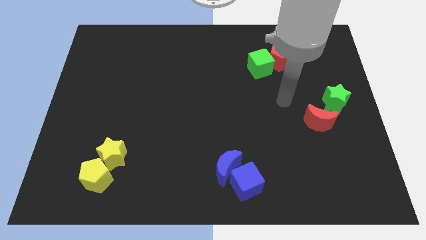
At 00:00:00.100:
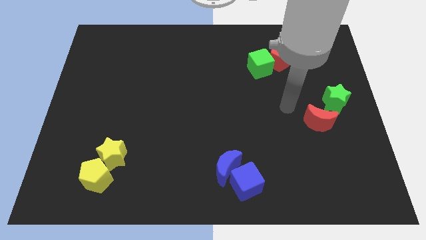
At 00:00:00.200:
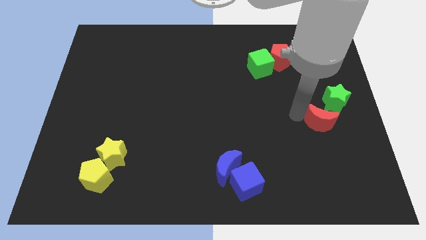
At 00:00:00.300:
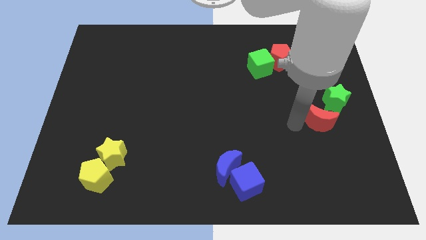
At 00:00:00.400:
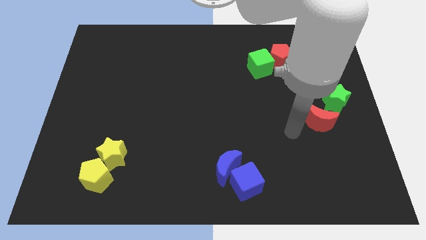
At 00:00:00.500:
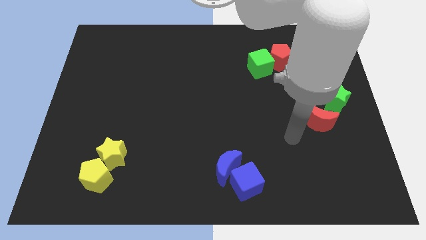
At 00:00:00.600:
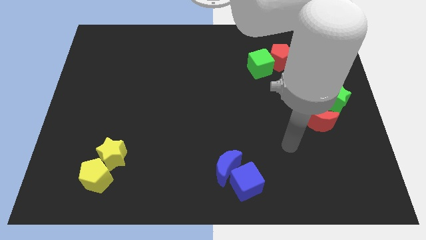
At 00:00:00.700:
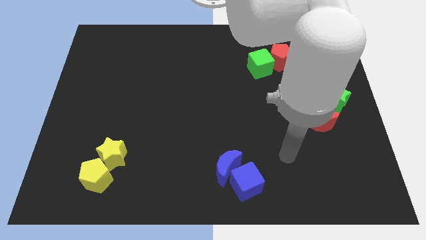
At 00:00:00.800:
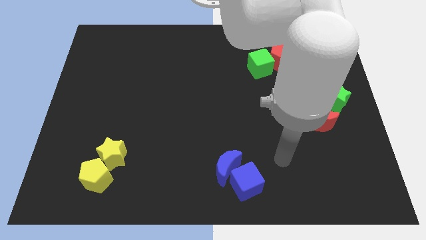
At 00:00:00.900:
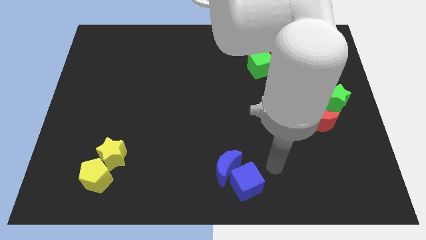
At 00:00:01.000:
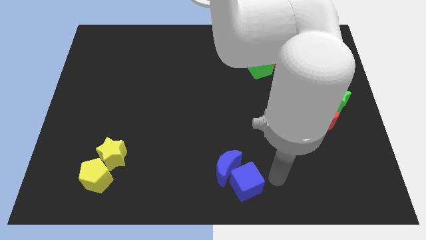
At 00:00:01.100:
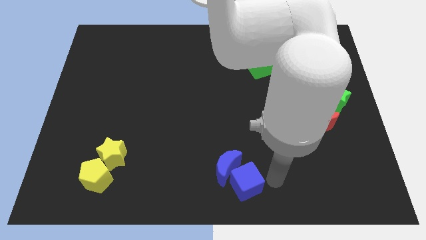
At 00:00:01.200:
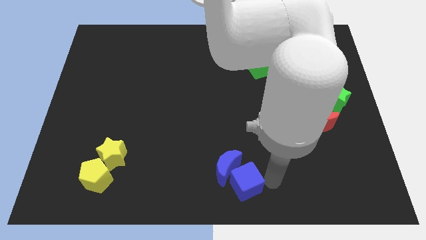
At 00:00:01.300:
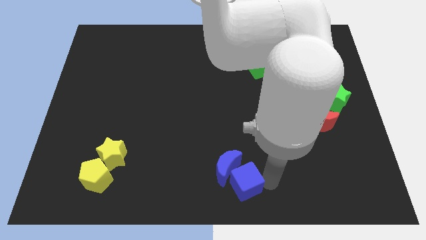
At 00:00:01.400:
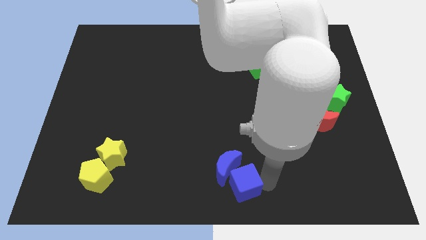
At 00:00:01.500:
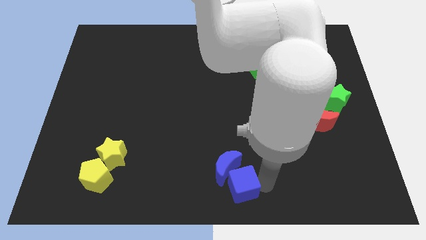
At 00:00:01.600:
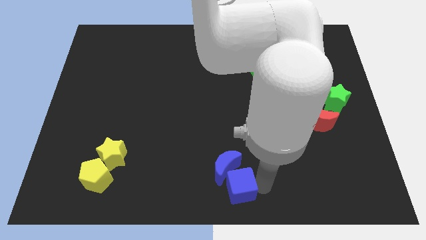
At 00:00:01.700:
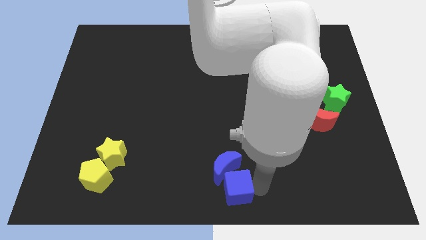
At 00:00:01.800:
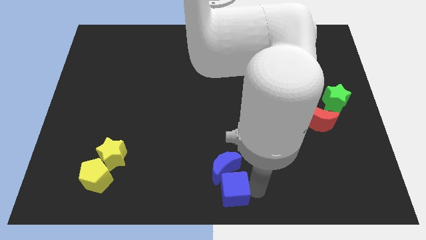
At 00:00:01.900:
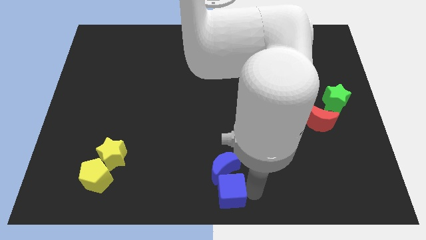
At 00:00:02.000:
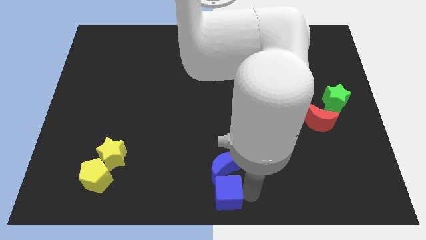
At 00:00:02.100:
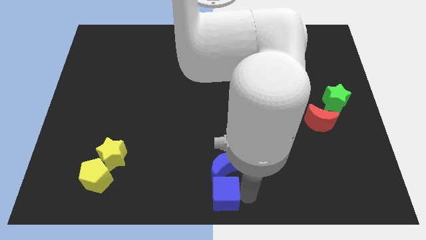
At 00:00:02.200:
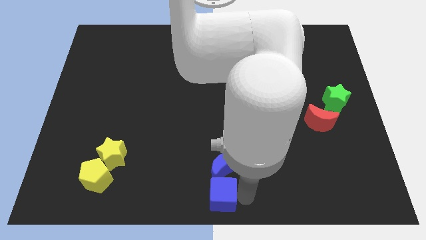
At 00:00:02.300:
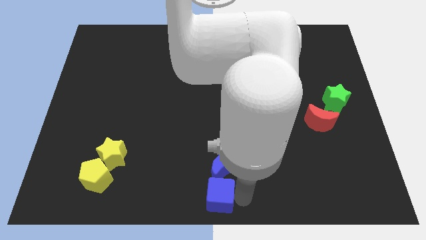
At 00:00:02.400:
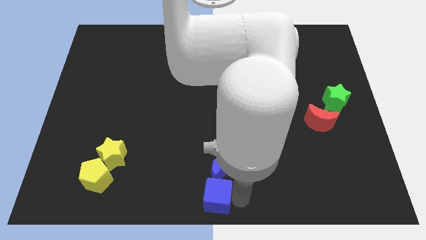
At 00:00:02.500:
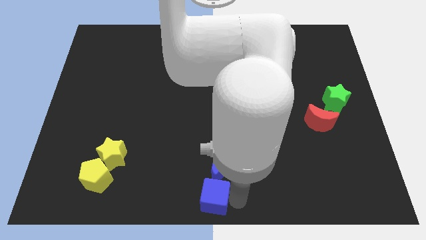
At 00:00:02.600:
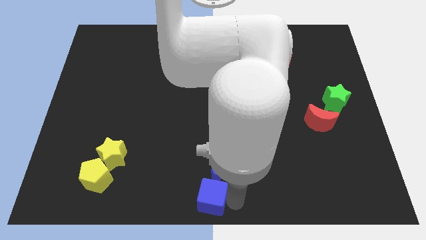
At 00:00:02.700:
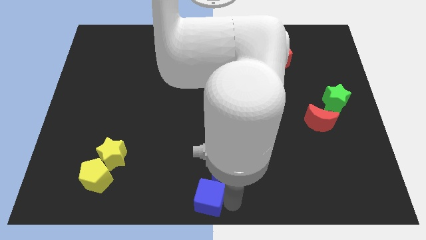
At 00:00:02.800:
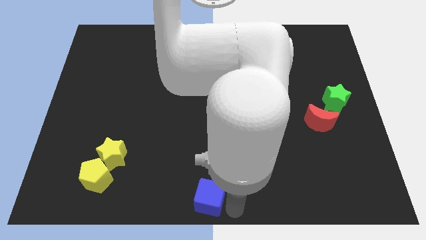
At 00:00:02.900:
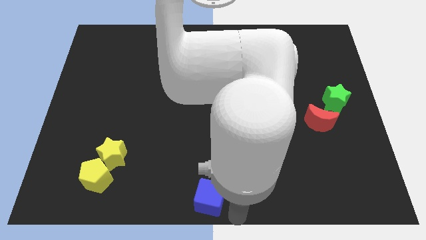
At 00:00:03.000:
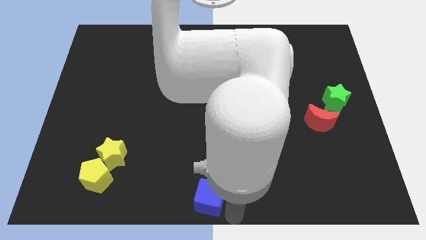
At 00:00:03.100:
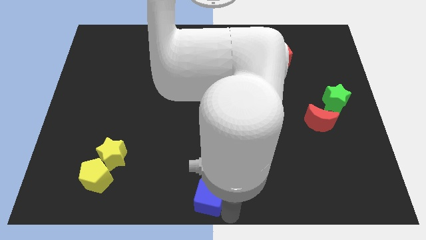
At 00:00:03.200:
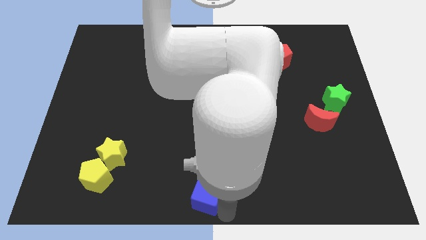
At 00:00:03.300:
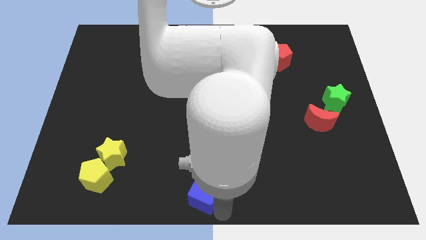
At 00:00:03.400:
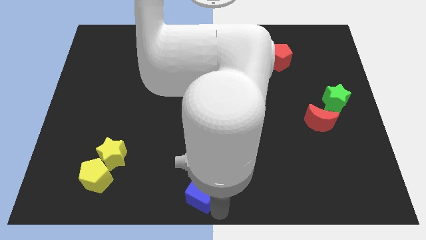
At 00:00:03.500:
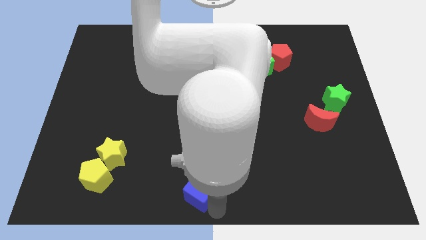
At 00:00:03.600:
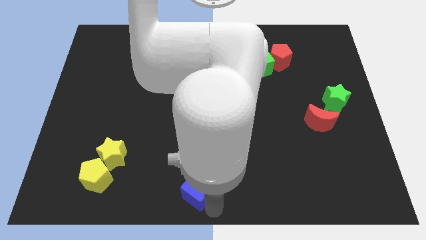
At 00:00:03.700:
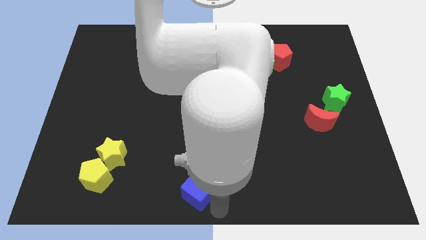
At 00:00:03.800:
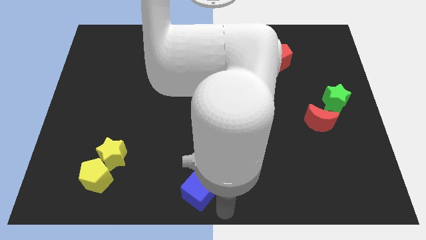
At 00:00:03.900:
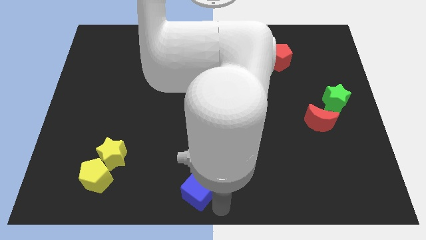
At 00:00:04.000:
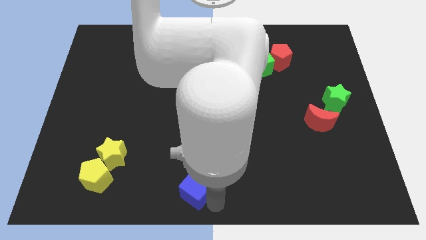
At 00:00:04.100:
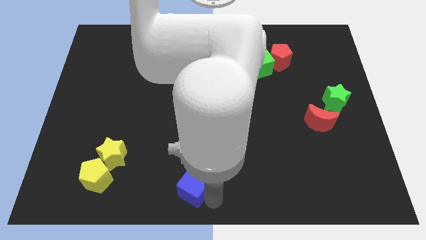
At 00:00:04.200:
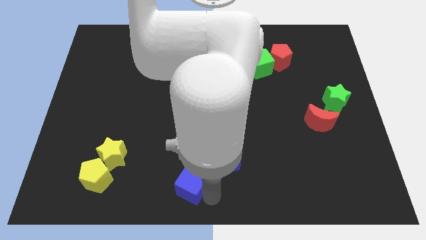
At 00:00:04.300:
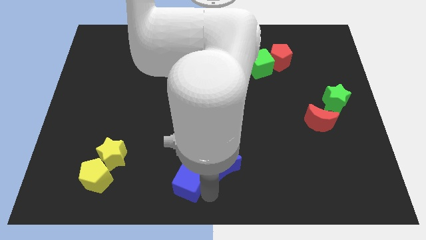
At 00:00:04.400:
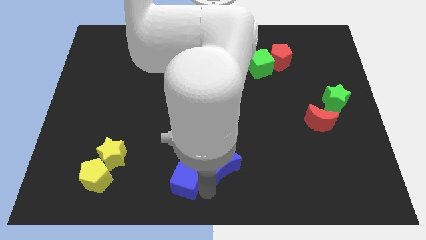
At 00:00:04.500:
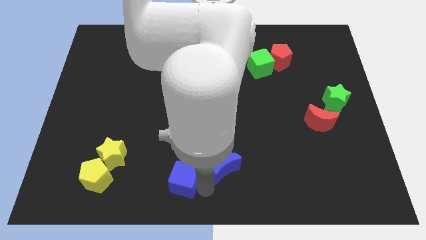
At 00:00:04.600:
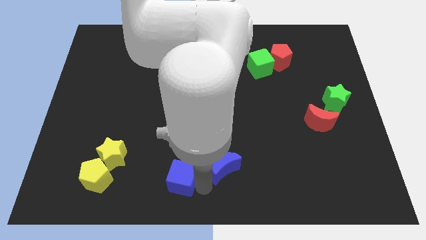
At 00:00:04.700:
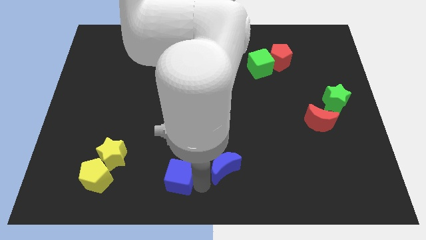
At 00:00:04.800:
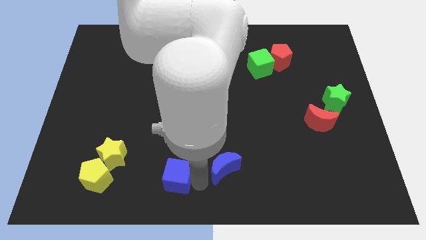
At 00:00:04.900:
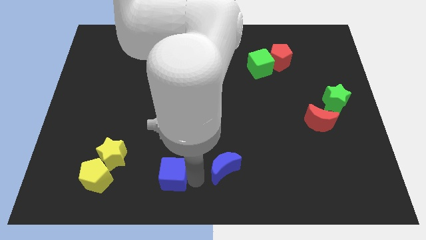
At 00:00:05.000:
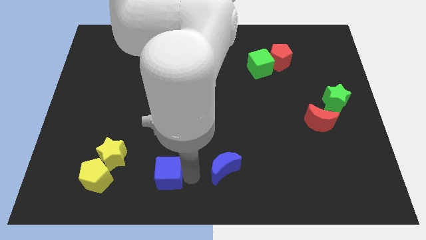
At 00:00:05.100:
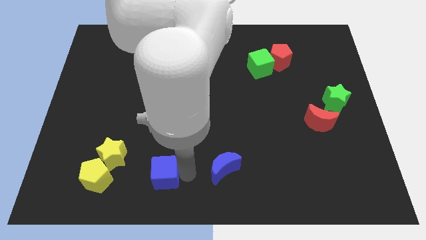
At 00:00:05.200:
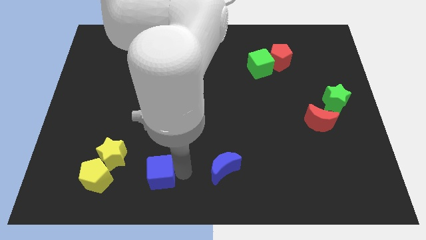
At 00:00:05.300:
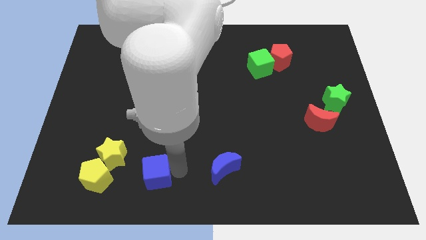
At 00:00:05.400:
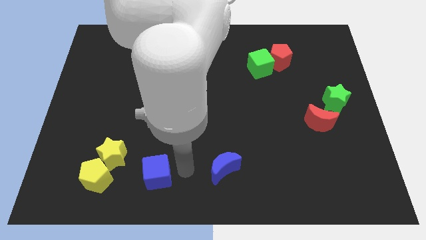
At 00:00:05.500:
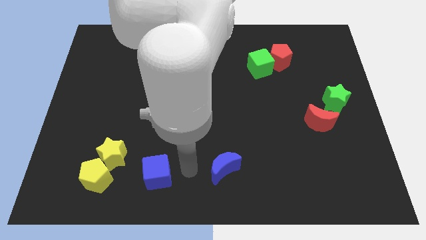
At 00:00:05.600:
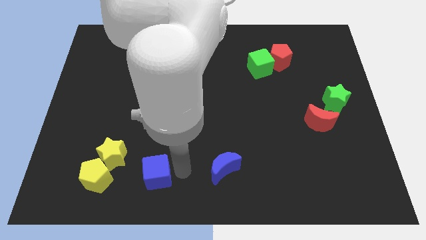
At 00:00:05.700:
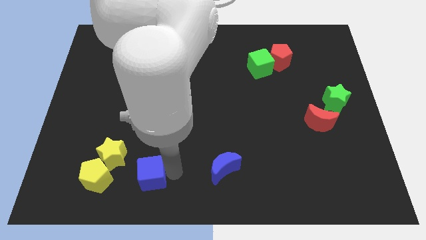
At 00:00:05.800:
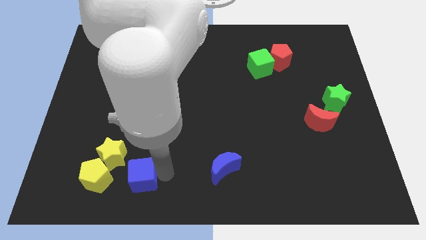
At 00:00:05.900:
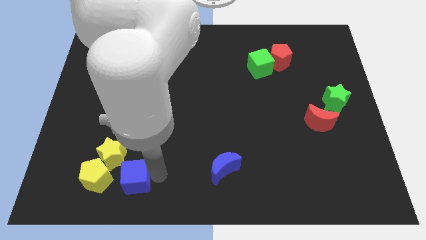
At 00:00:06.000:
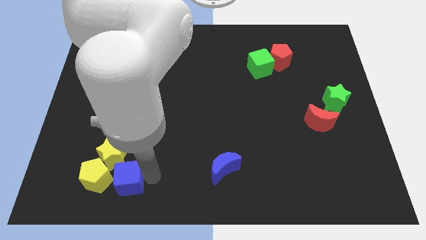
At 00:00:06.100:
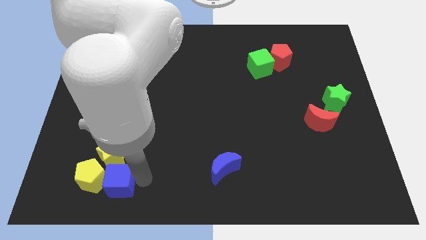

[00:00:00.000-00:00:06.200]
push the blue cube close to the yellow pentagon

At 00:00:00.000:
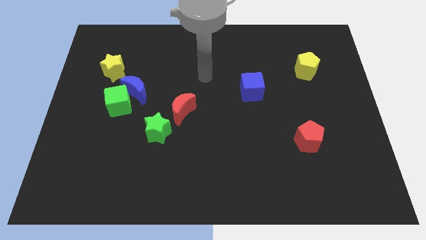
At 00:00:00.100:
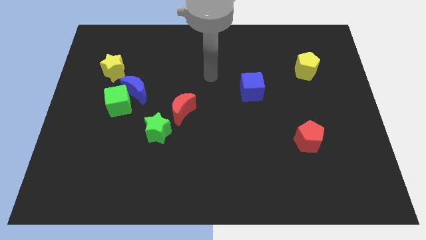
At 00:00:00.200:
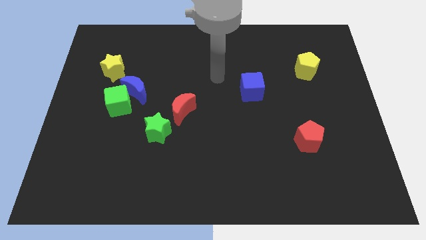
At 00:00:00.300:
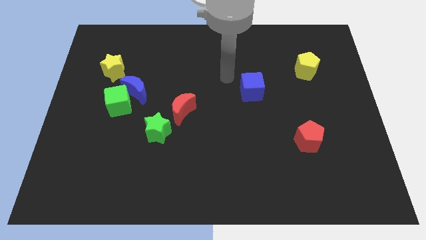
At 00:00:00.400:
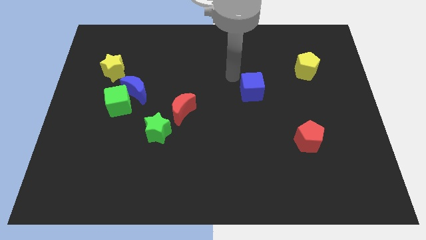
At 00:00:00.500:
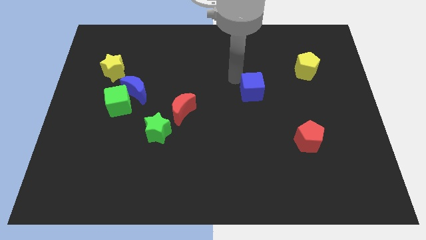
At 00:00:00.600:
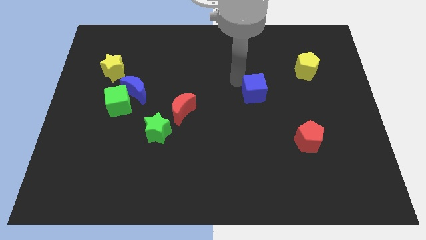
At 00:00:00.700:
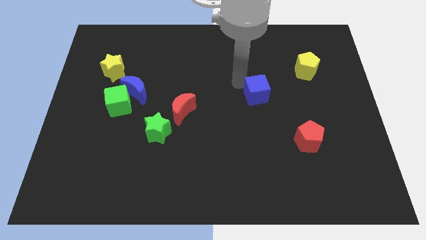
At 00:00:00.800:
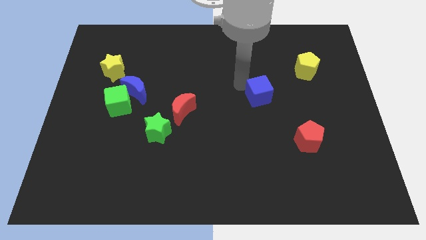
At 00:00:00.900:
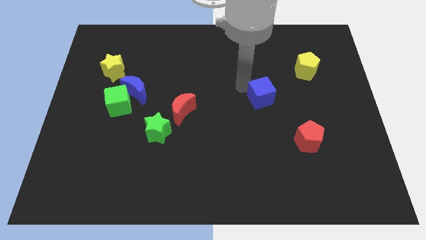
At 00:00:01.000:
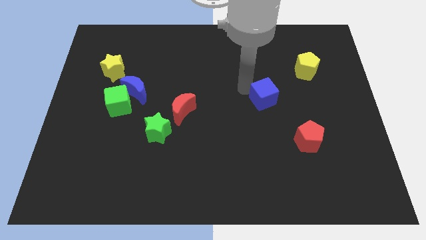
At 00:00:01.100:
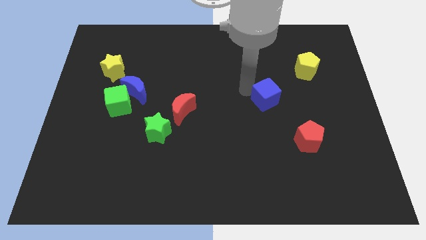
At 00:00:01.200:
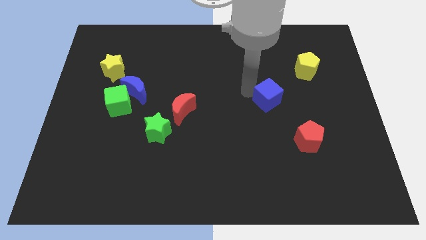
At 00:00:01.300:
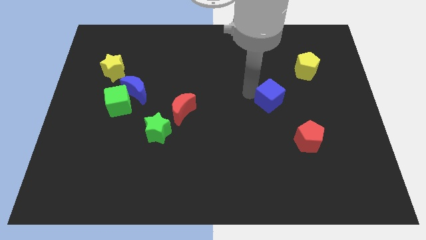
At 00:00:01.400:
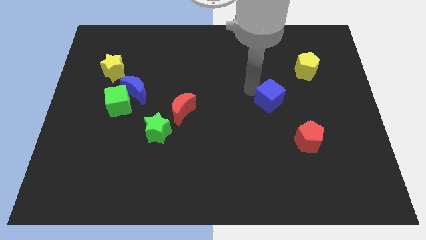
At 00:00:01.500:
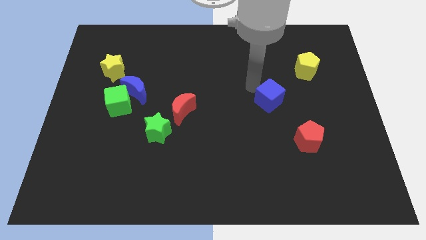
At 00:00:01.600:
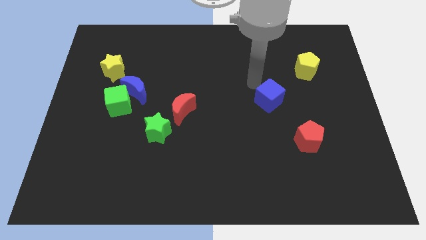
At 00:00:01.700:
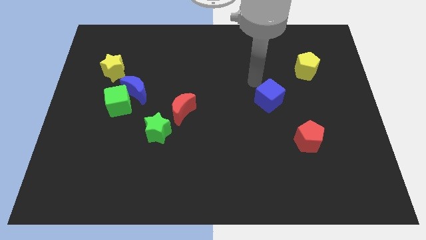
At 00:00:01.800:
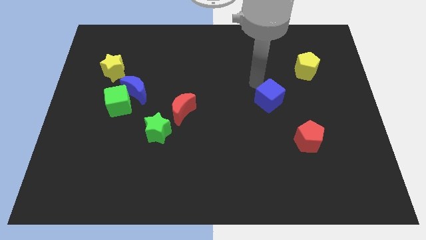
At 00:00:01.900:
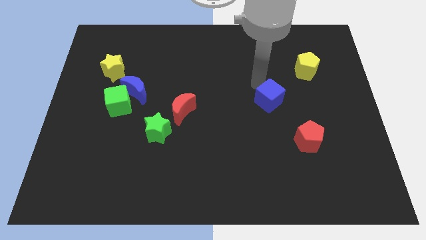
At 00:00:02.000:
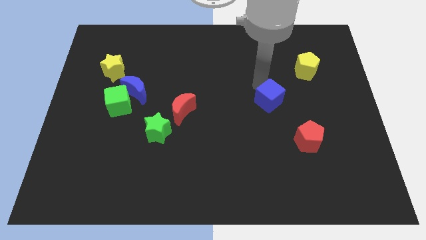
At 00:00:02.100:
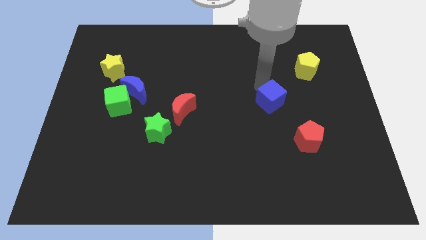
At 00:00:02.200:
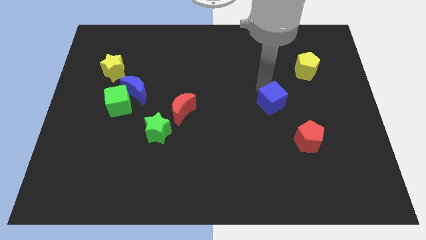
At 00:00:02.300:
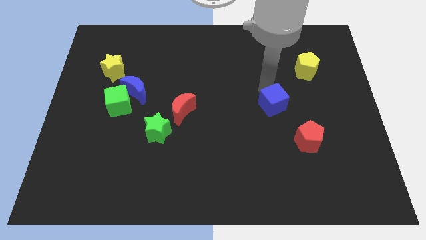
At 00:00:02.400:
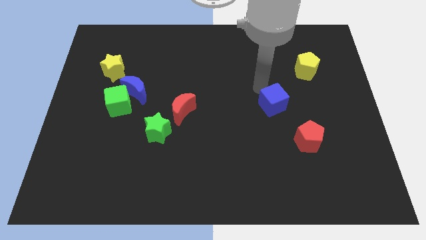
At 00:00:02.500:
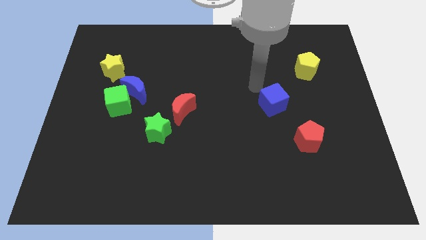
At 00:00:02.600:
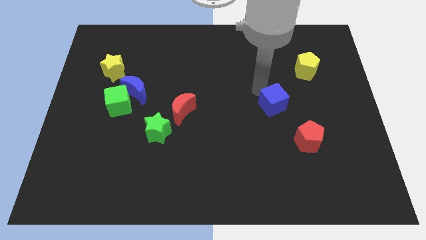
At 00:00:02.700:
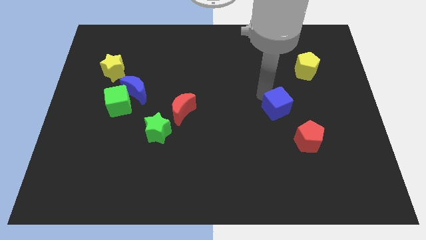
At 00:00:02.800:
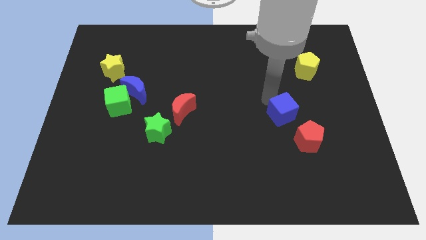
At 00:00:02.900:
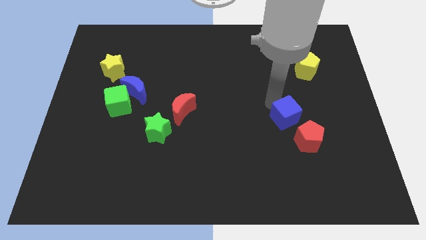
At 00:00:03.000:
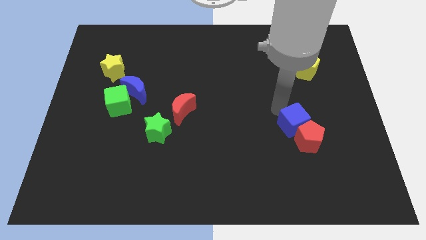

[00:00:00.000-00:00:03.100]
move the blue cube to the red pentagon
